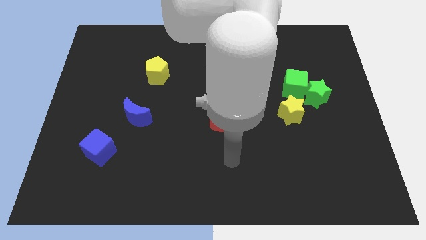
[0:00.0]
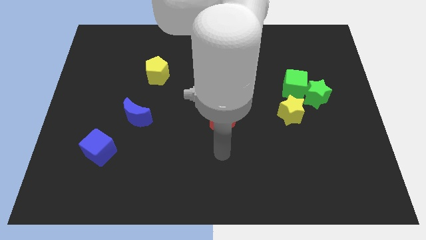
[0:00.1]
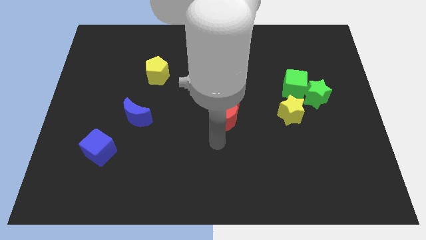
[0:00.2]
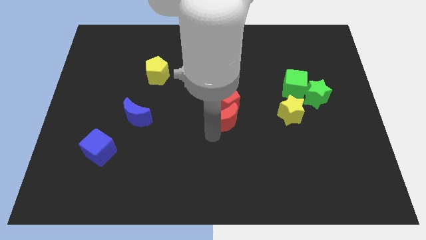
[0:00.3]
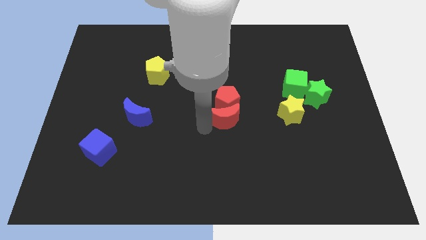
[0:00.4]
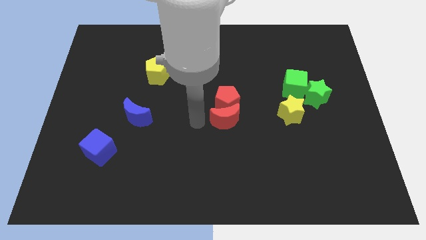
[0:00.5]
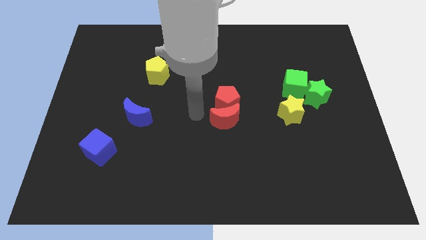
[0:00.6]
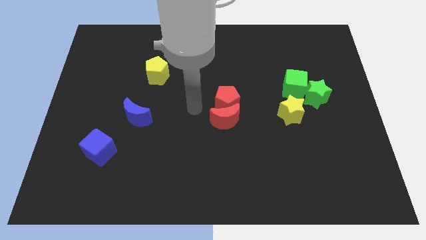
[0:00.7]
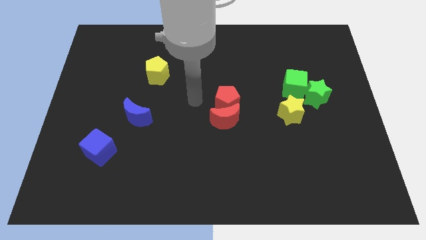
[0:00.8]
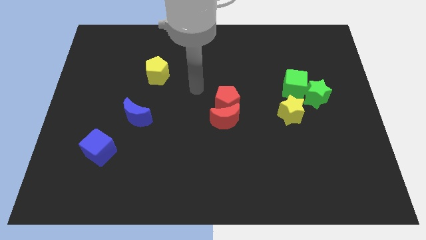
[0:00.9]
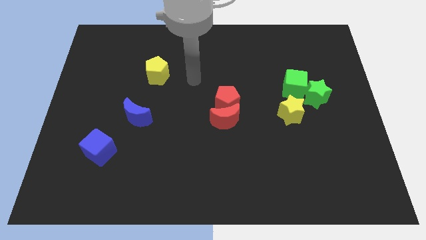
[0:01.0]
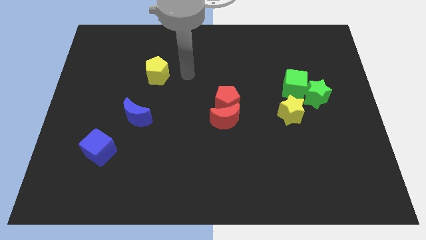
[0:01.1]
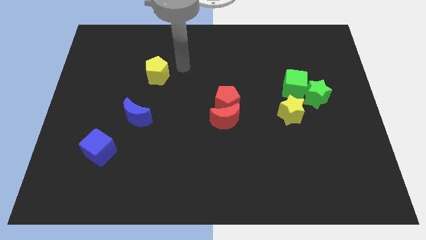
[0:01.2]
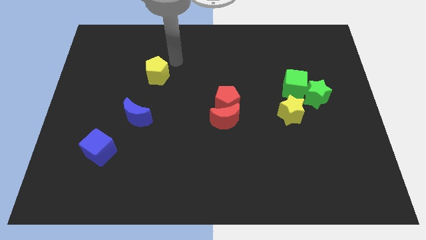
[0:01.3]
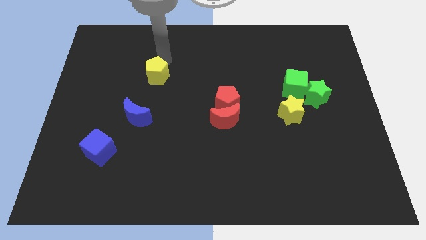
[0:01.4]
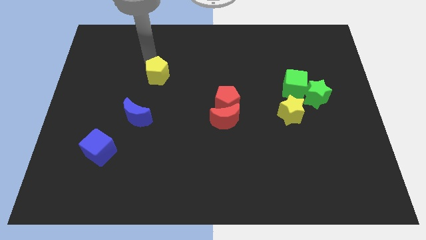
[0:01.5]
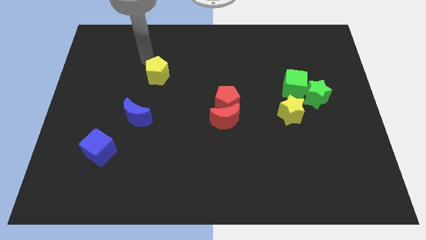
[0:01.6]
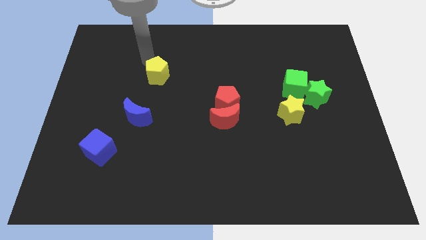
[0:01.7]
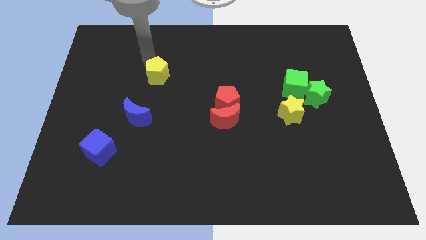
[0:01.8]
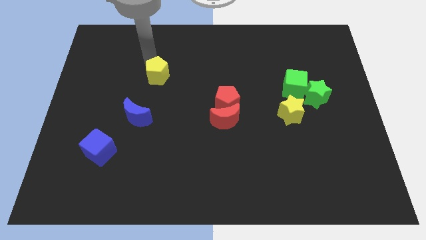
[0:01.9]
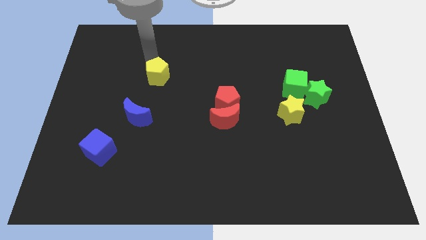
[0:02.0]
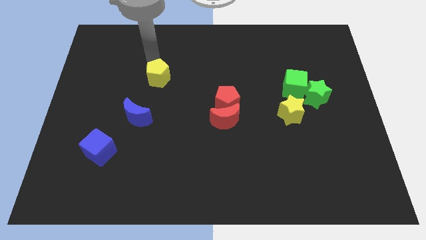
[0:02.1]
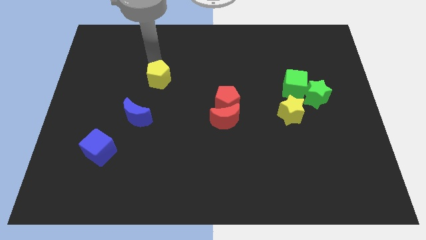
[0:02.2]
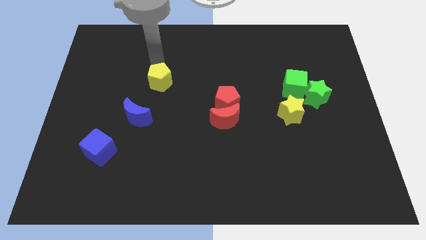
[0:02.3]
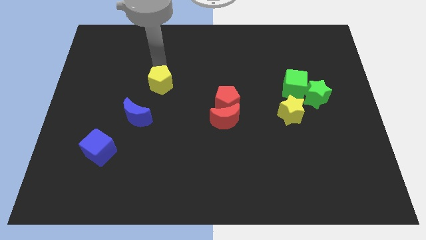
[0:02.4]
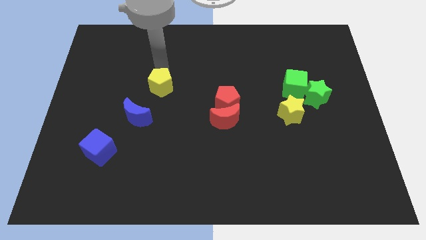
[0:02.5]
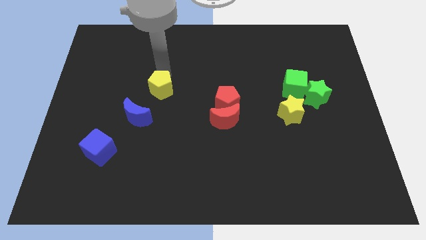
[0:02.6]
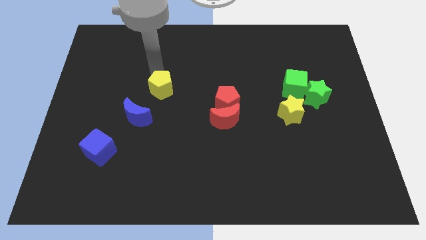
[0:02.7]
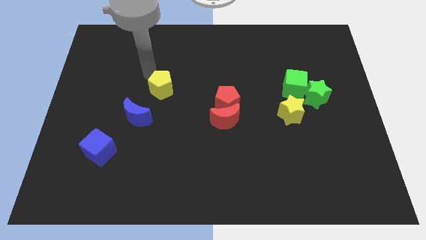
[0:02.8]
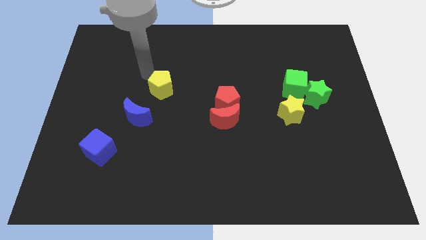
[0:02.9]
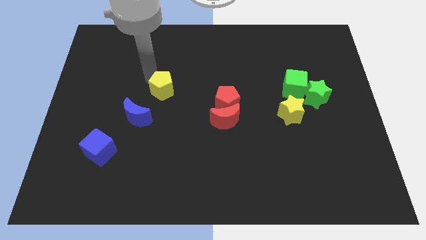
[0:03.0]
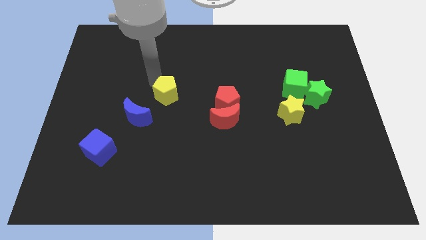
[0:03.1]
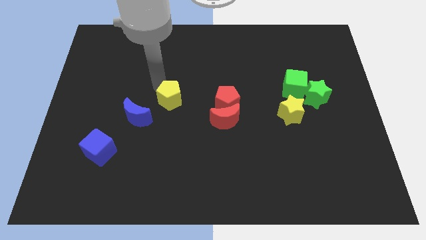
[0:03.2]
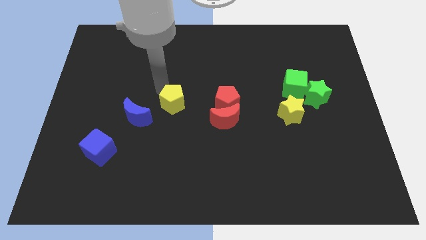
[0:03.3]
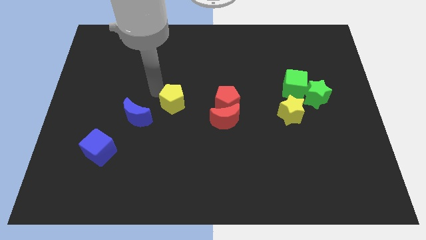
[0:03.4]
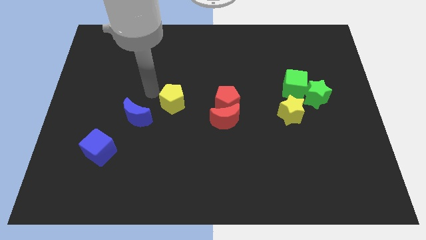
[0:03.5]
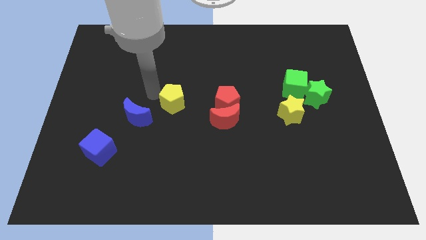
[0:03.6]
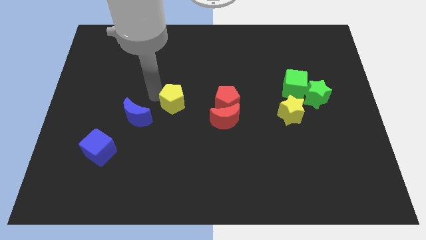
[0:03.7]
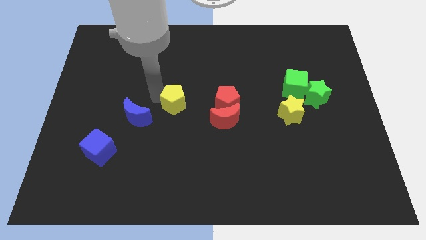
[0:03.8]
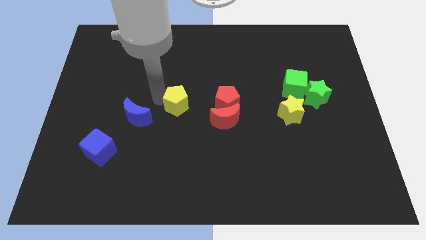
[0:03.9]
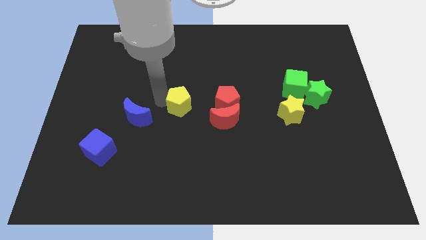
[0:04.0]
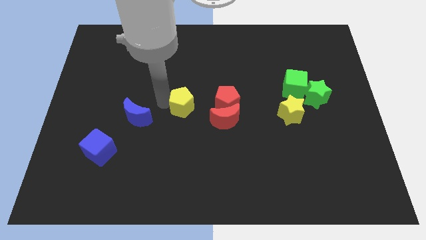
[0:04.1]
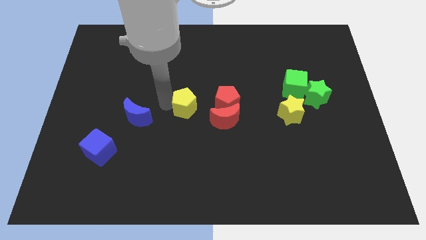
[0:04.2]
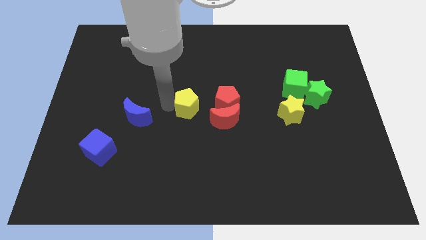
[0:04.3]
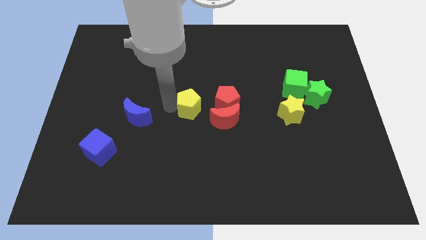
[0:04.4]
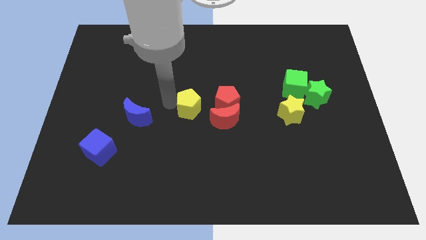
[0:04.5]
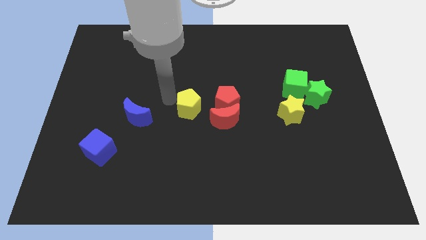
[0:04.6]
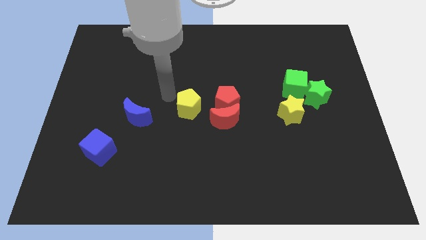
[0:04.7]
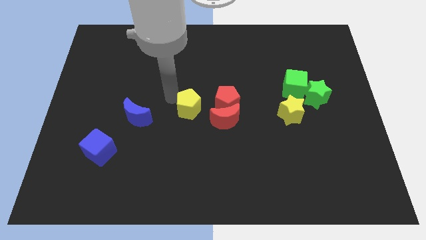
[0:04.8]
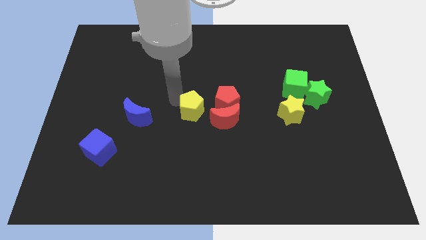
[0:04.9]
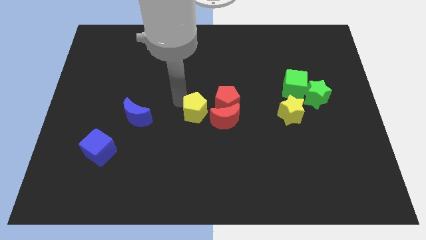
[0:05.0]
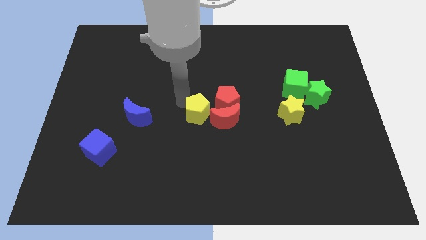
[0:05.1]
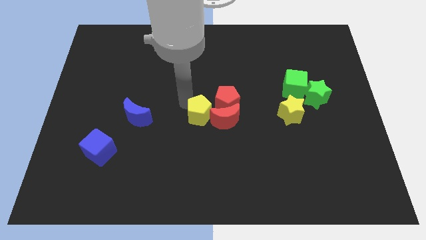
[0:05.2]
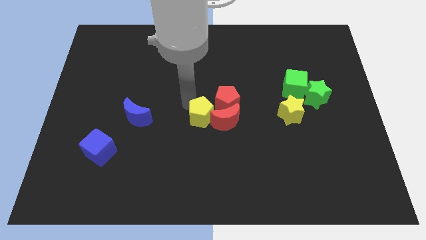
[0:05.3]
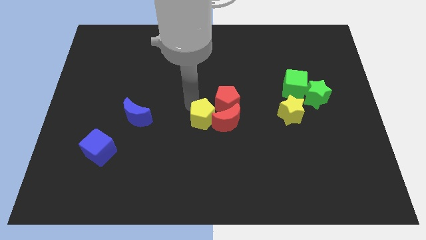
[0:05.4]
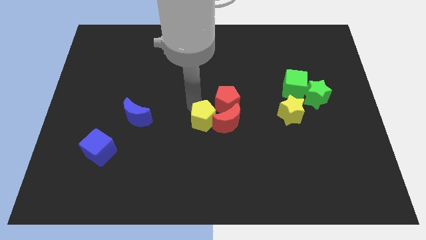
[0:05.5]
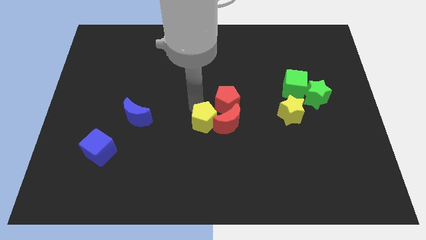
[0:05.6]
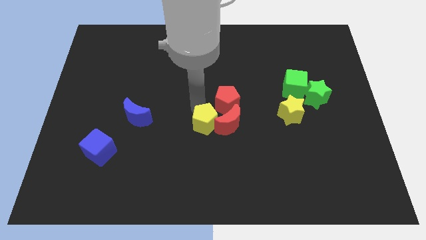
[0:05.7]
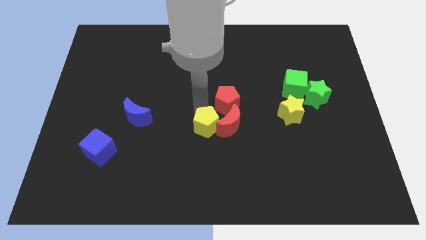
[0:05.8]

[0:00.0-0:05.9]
move the yellow pentagon downwards and then right

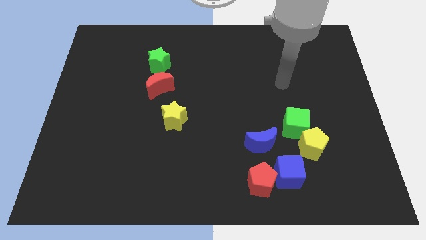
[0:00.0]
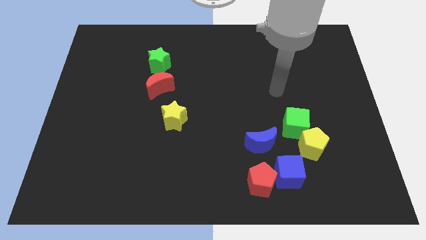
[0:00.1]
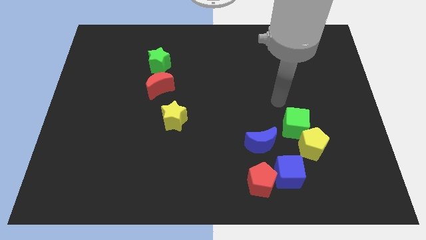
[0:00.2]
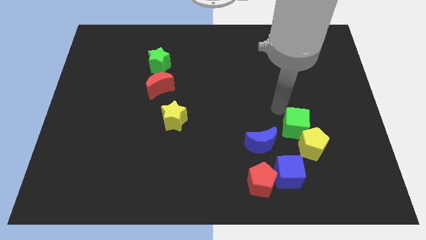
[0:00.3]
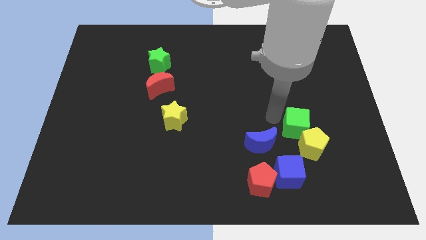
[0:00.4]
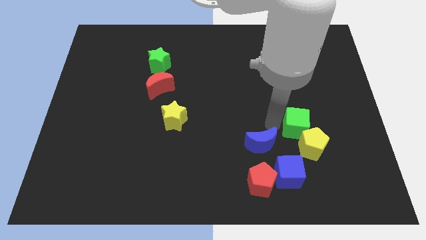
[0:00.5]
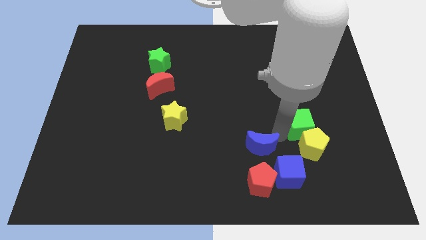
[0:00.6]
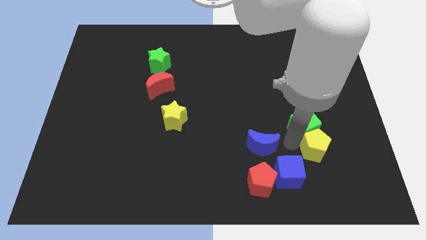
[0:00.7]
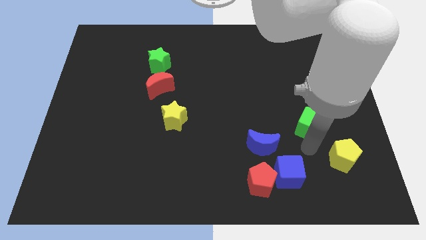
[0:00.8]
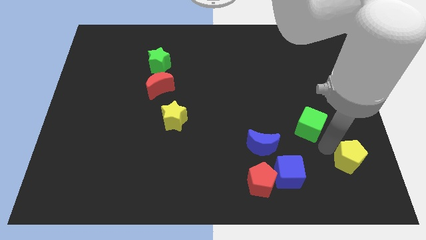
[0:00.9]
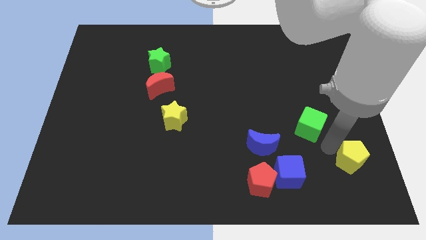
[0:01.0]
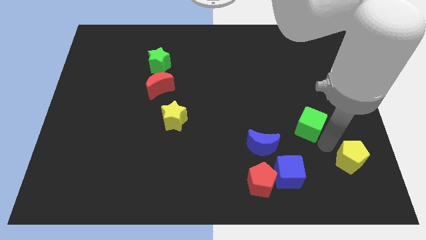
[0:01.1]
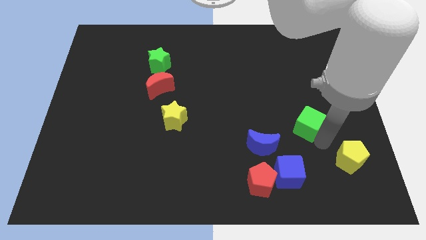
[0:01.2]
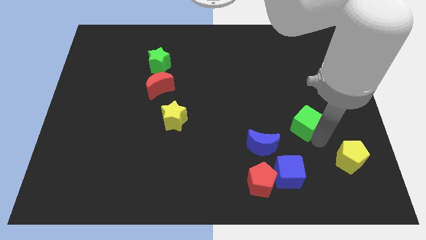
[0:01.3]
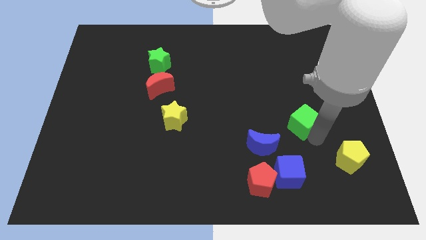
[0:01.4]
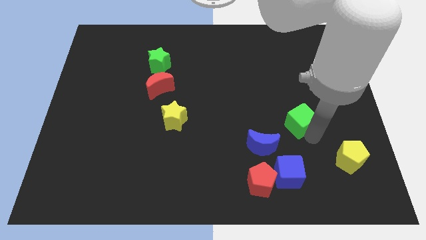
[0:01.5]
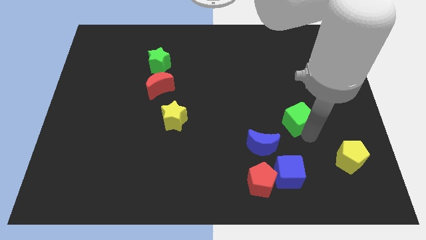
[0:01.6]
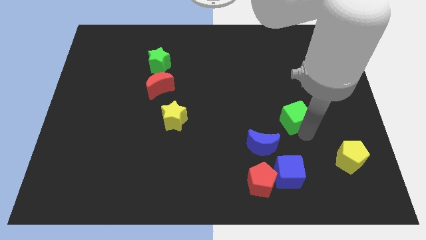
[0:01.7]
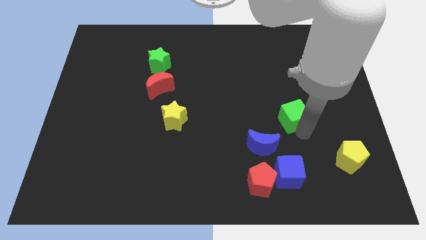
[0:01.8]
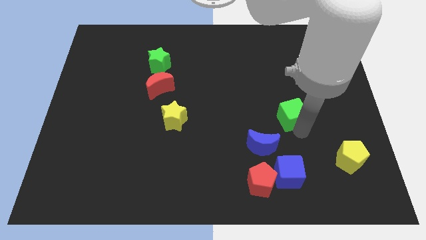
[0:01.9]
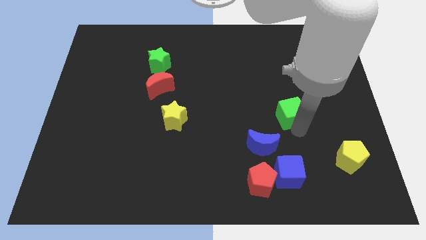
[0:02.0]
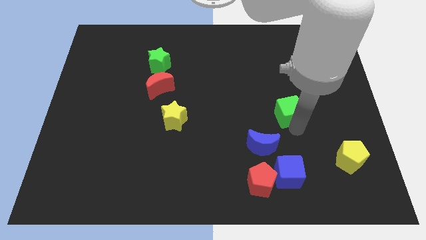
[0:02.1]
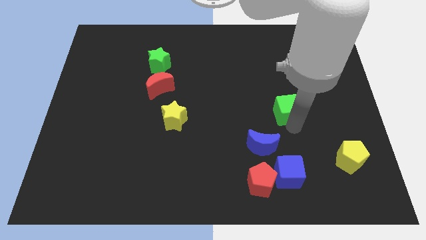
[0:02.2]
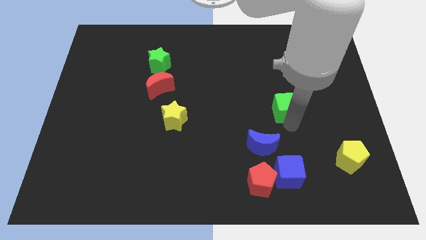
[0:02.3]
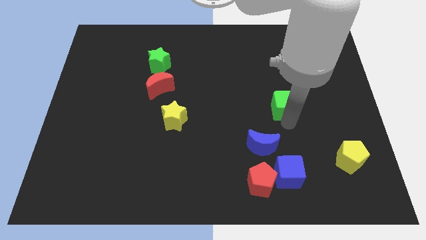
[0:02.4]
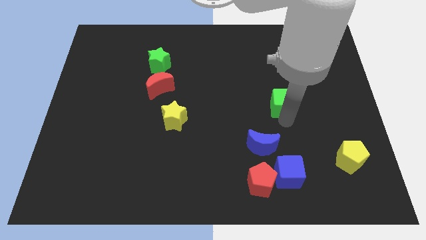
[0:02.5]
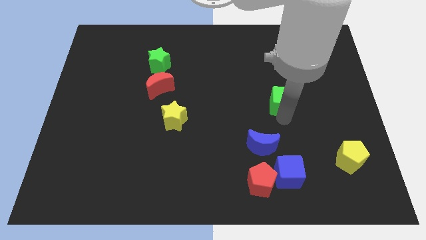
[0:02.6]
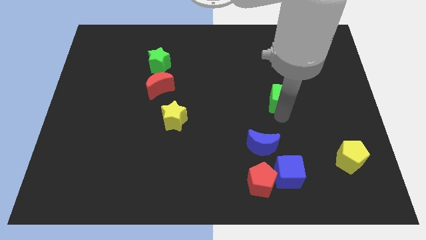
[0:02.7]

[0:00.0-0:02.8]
push the green cube a little upwards
